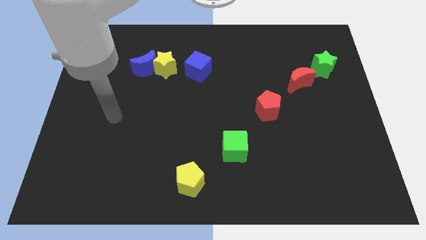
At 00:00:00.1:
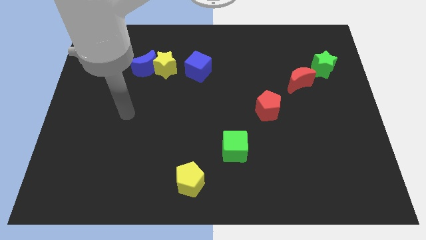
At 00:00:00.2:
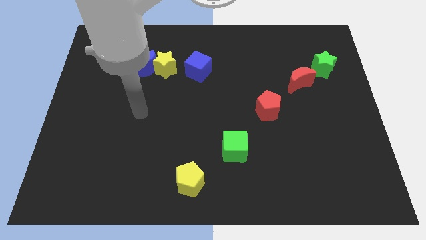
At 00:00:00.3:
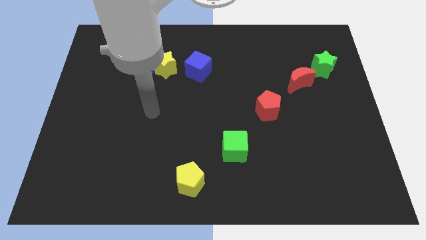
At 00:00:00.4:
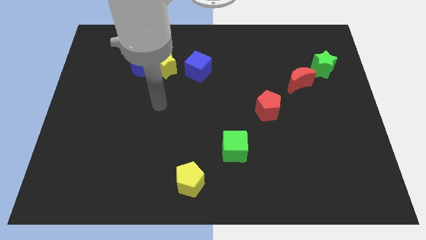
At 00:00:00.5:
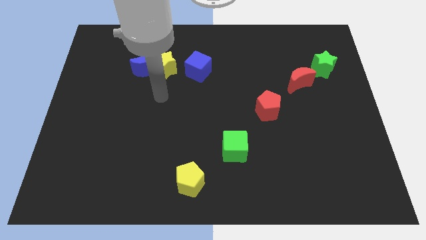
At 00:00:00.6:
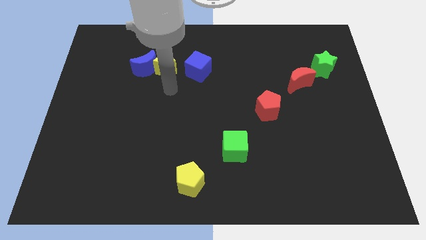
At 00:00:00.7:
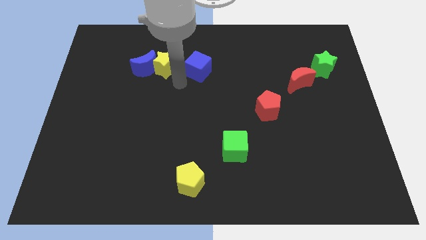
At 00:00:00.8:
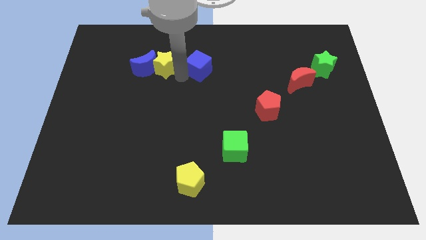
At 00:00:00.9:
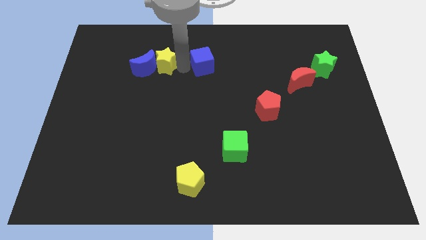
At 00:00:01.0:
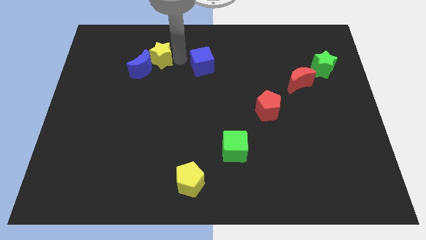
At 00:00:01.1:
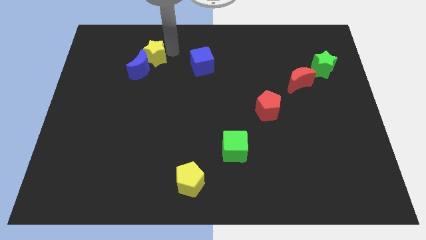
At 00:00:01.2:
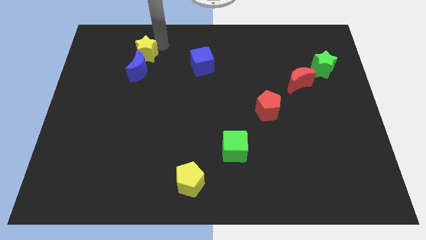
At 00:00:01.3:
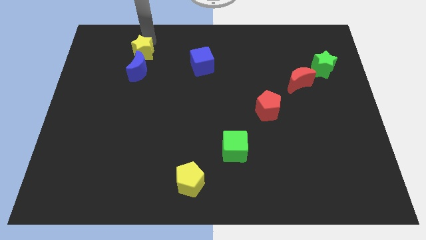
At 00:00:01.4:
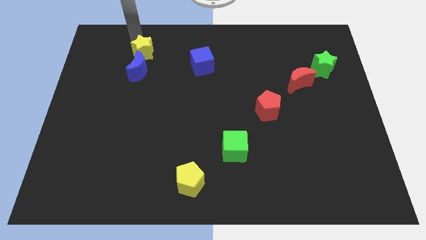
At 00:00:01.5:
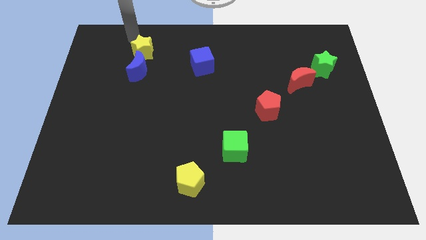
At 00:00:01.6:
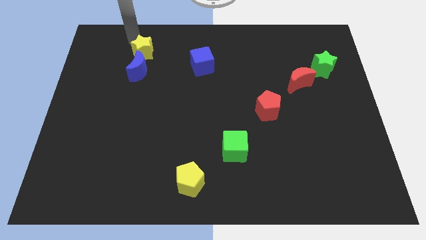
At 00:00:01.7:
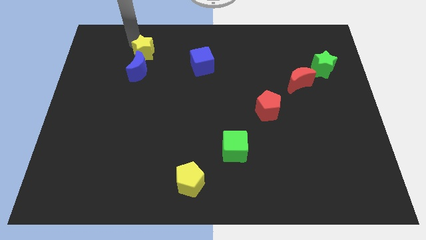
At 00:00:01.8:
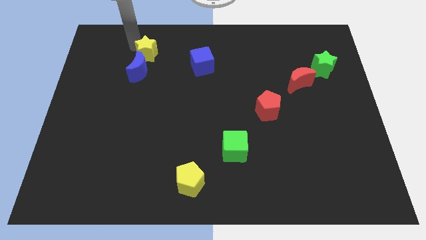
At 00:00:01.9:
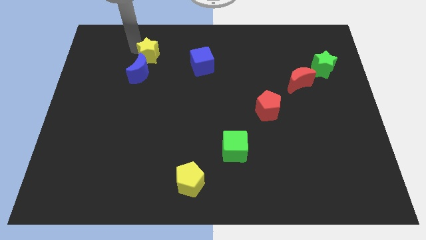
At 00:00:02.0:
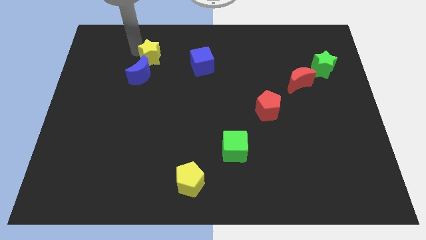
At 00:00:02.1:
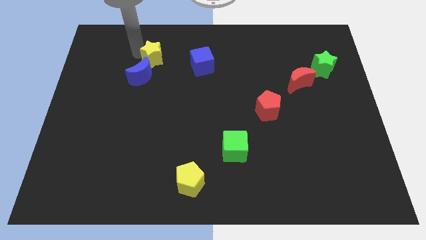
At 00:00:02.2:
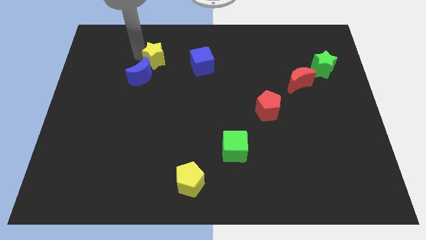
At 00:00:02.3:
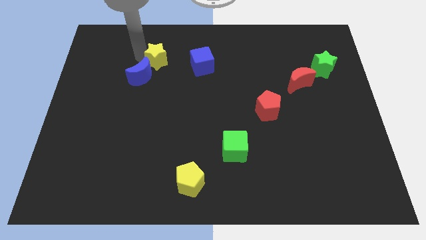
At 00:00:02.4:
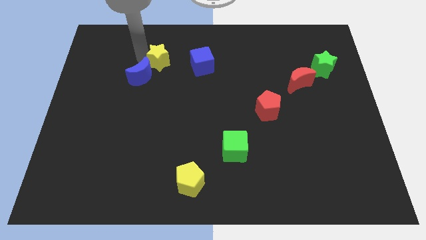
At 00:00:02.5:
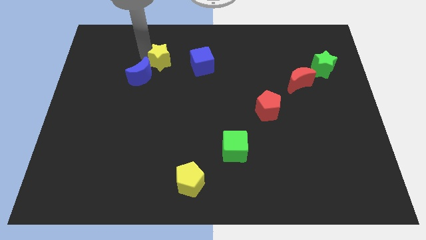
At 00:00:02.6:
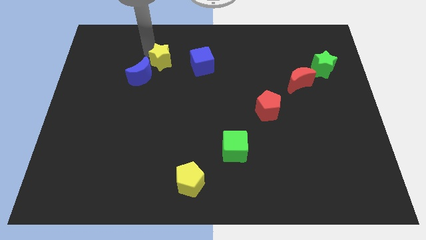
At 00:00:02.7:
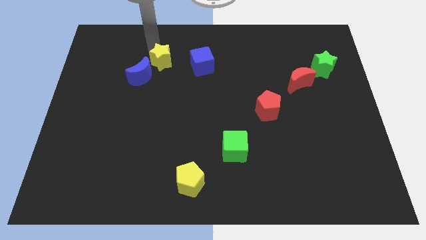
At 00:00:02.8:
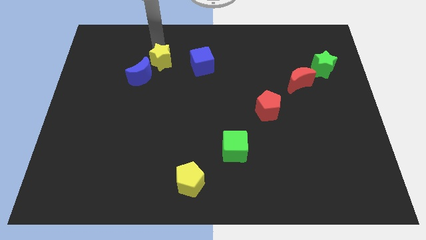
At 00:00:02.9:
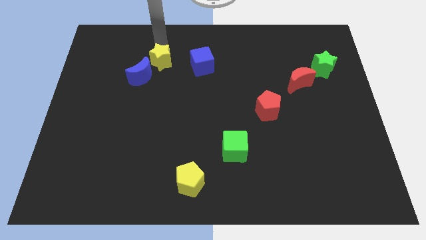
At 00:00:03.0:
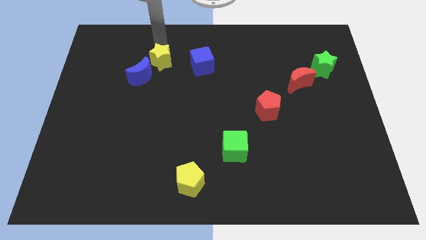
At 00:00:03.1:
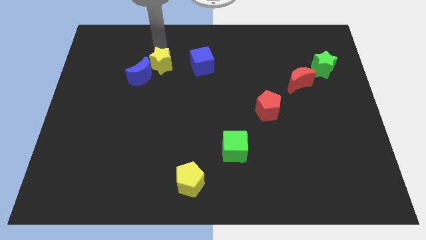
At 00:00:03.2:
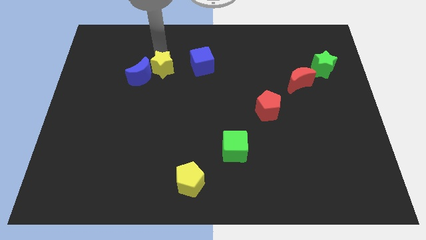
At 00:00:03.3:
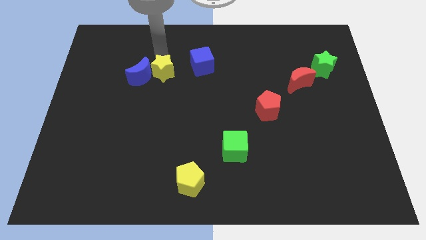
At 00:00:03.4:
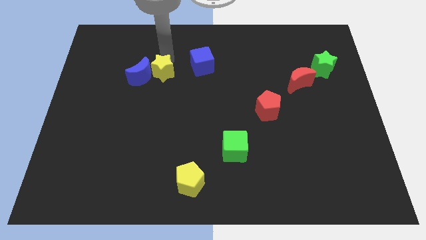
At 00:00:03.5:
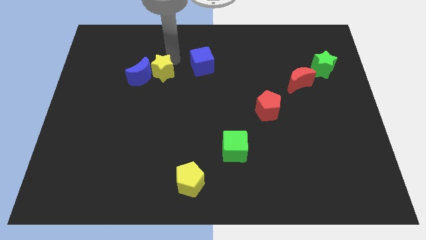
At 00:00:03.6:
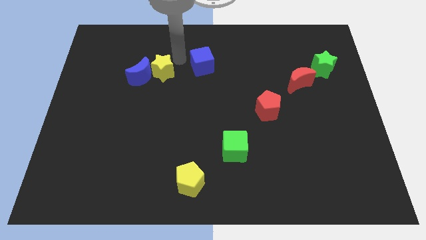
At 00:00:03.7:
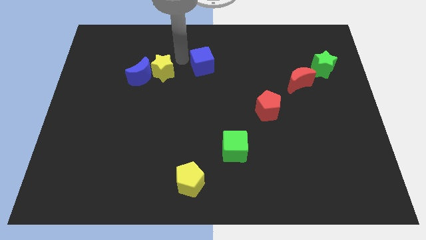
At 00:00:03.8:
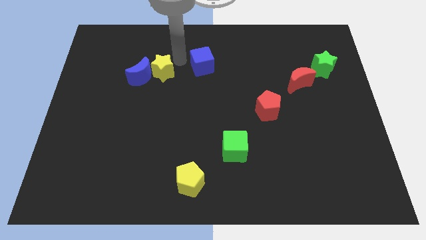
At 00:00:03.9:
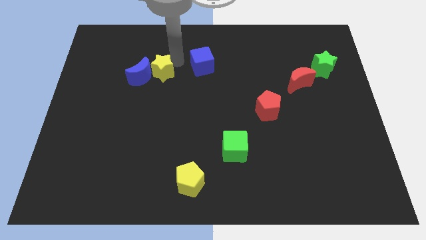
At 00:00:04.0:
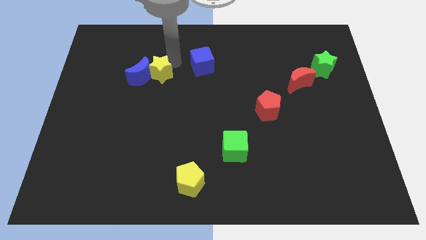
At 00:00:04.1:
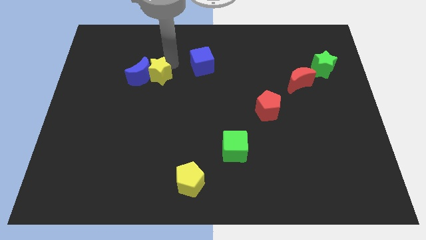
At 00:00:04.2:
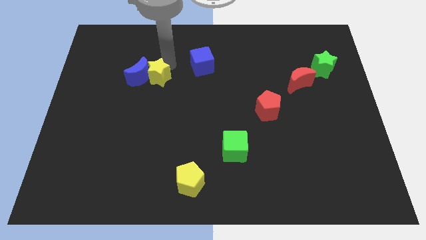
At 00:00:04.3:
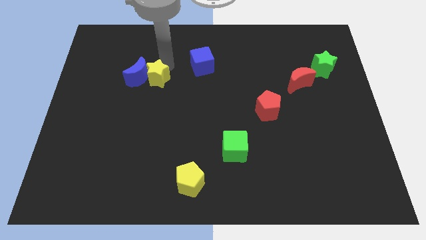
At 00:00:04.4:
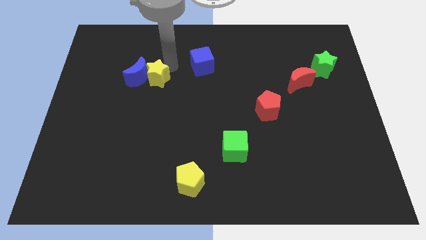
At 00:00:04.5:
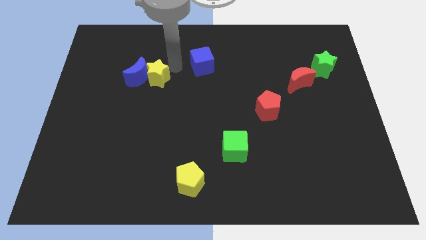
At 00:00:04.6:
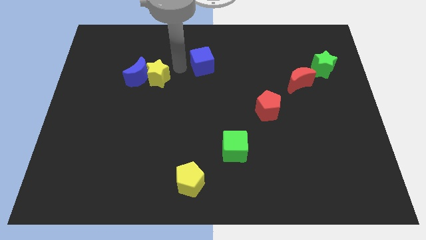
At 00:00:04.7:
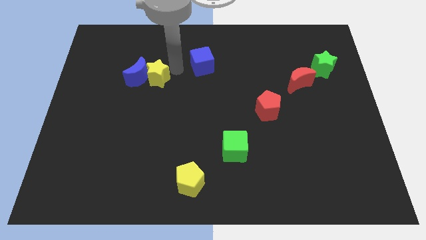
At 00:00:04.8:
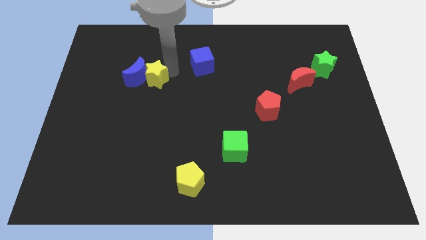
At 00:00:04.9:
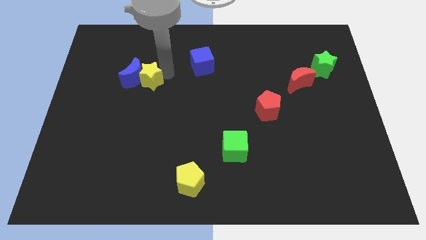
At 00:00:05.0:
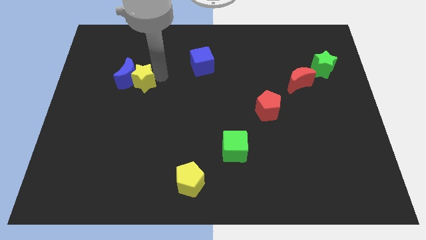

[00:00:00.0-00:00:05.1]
slightly slide the yellow star diagonally down and to the left

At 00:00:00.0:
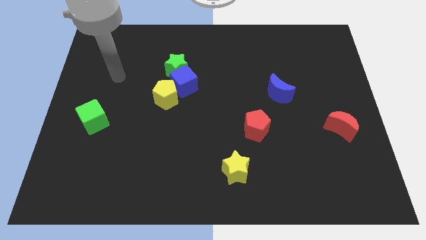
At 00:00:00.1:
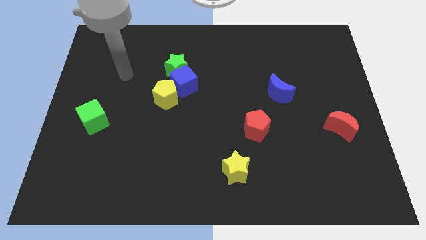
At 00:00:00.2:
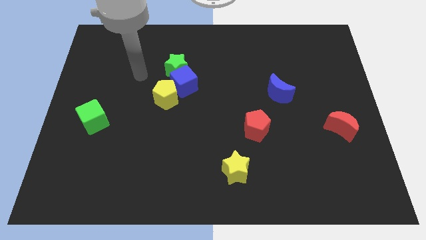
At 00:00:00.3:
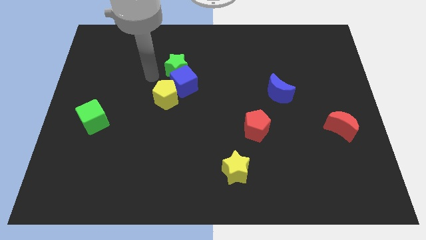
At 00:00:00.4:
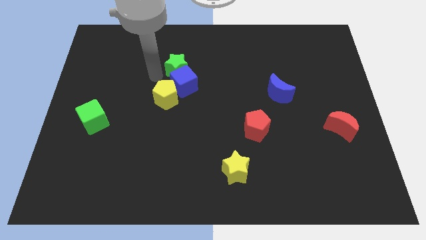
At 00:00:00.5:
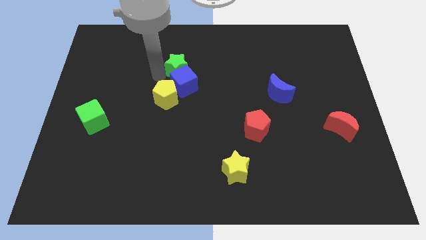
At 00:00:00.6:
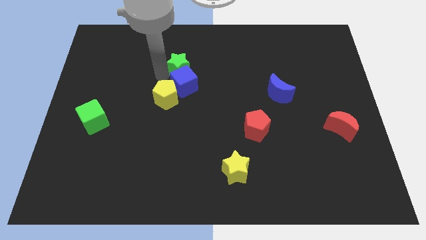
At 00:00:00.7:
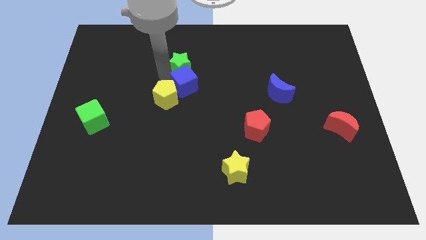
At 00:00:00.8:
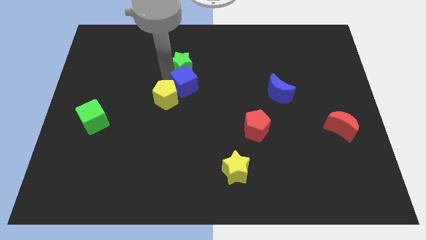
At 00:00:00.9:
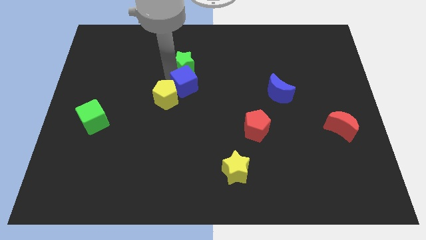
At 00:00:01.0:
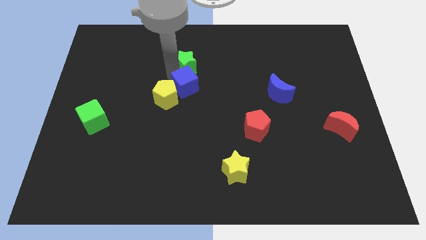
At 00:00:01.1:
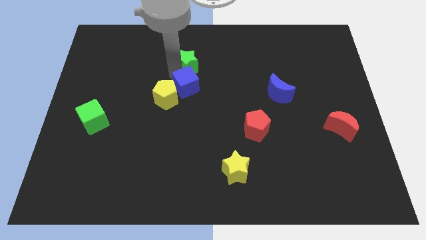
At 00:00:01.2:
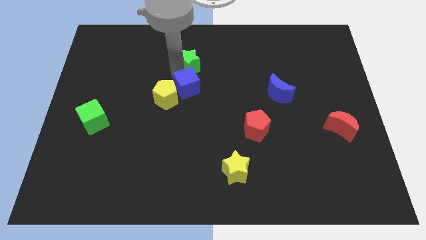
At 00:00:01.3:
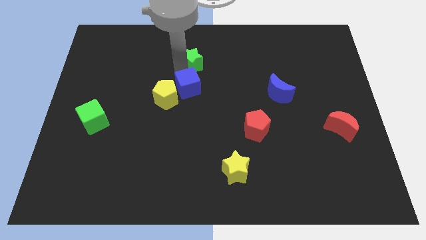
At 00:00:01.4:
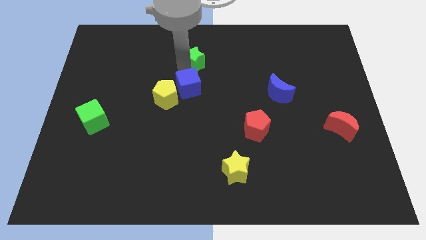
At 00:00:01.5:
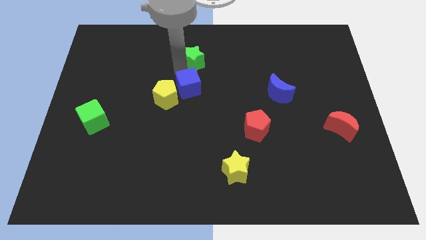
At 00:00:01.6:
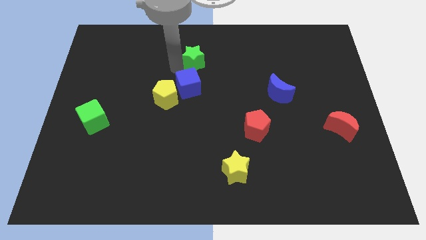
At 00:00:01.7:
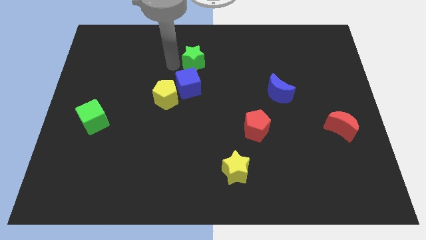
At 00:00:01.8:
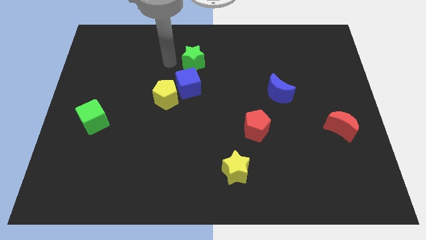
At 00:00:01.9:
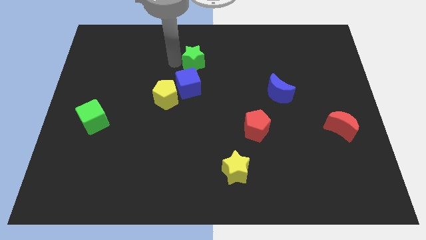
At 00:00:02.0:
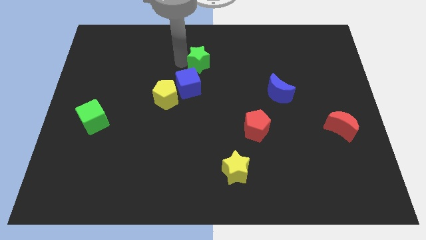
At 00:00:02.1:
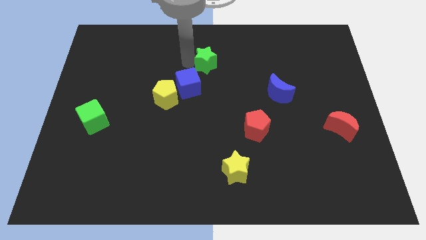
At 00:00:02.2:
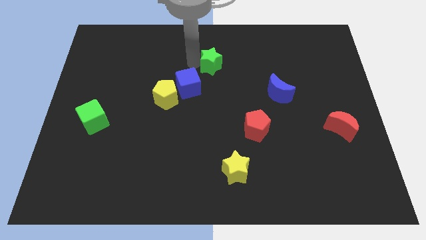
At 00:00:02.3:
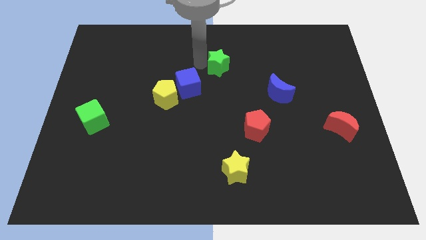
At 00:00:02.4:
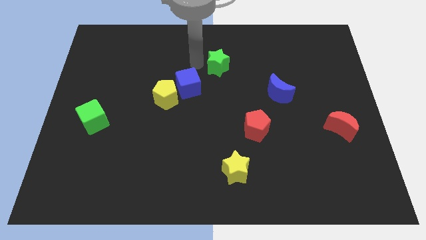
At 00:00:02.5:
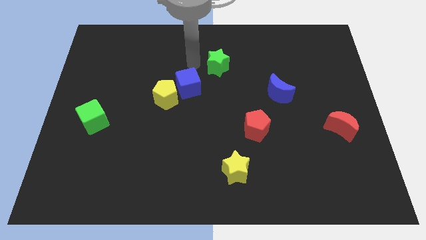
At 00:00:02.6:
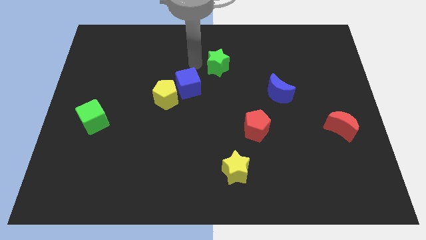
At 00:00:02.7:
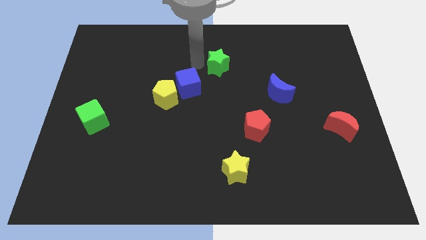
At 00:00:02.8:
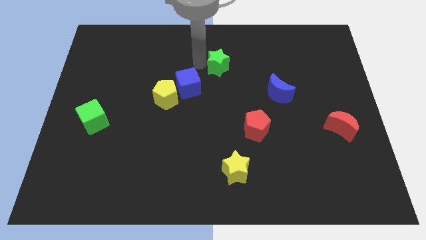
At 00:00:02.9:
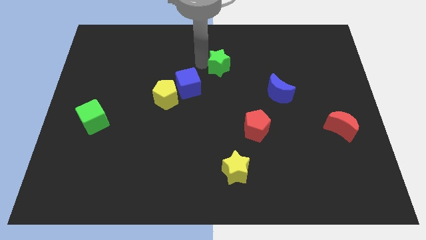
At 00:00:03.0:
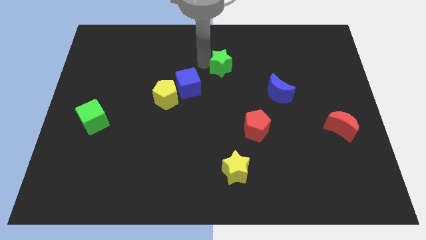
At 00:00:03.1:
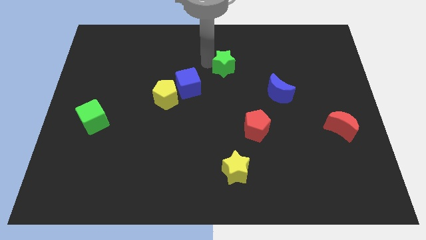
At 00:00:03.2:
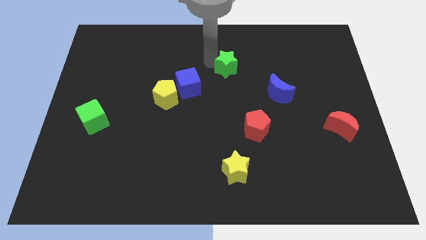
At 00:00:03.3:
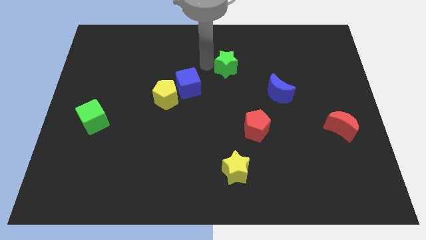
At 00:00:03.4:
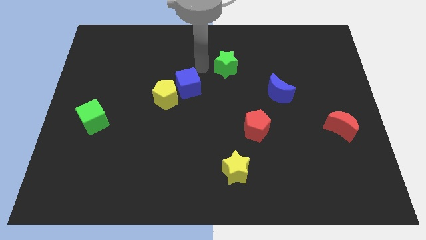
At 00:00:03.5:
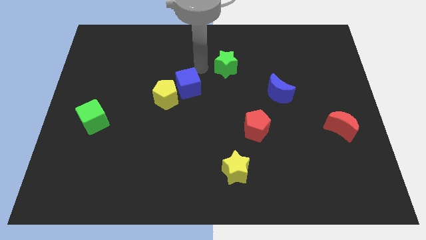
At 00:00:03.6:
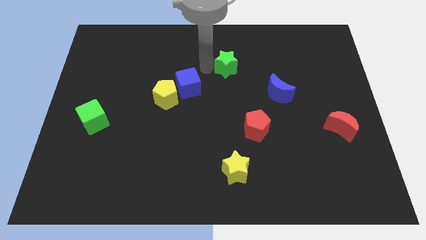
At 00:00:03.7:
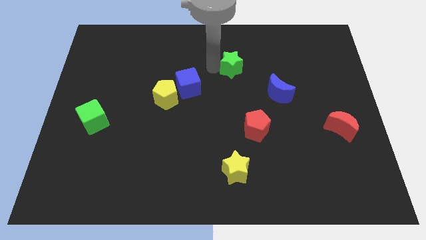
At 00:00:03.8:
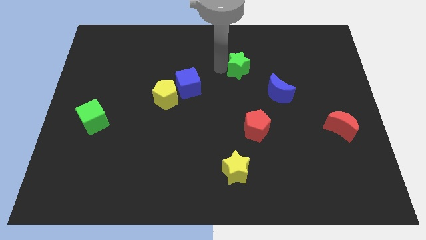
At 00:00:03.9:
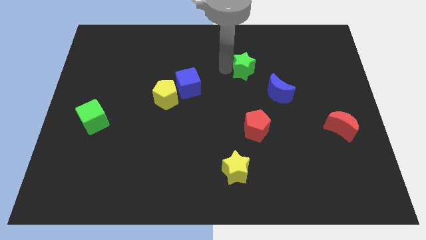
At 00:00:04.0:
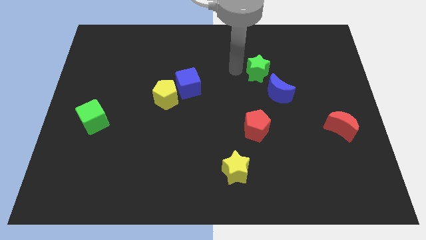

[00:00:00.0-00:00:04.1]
push the green star right
